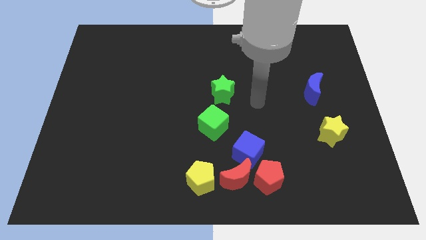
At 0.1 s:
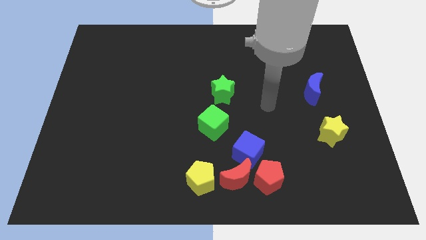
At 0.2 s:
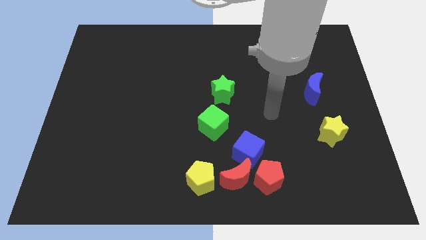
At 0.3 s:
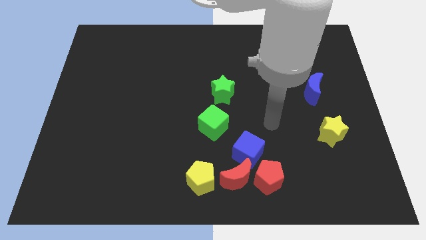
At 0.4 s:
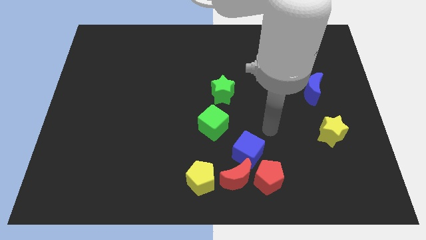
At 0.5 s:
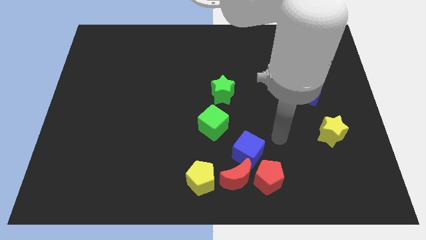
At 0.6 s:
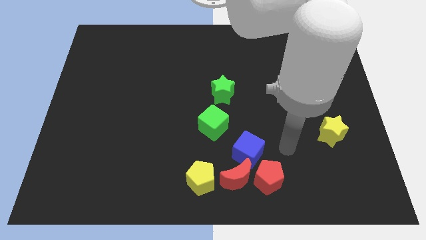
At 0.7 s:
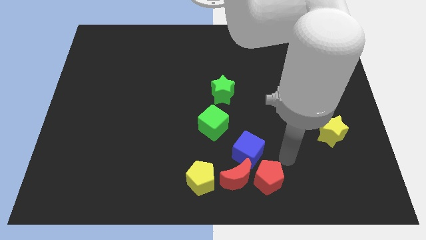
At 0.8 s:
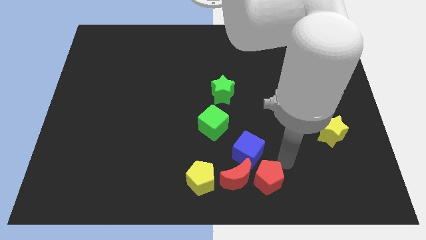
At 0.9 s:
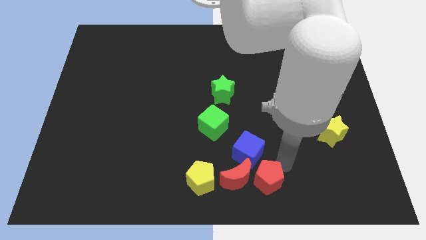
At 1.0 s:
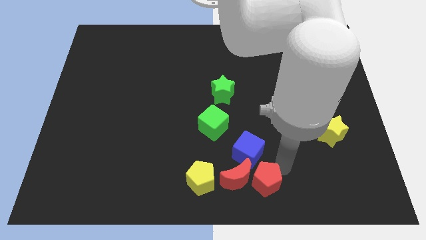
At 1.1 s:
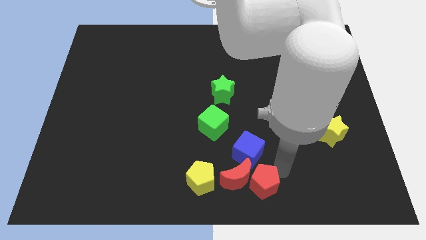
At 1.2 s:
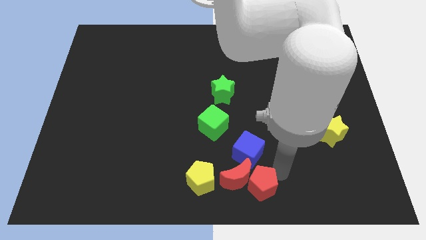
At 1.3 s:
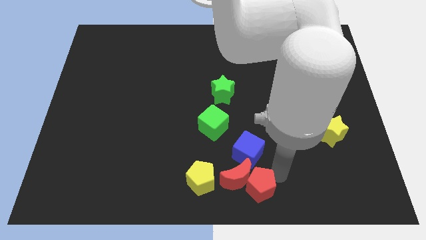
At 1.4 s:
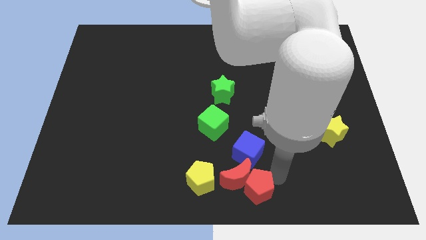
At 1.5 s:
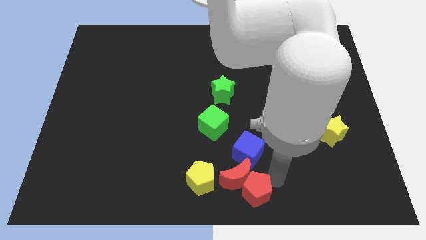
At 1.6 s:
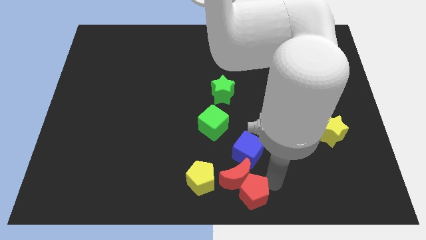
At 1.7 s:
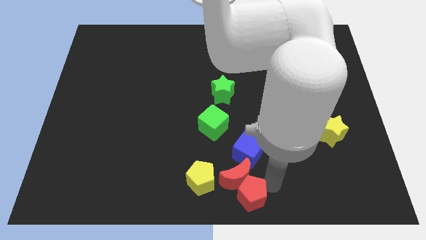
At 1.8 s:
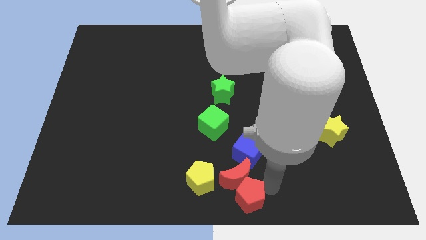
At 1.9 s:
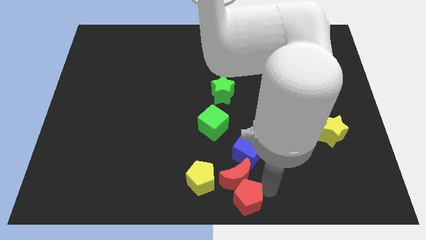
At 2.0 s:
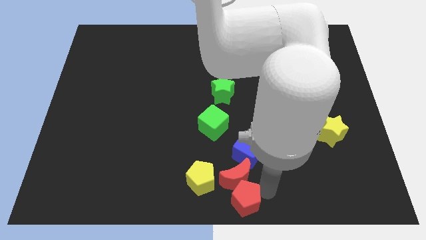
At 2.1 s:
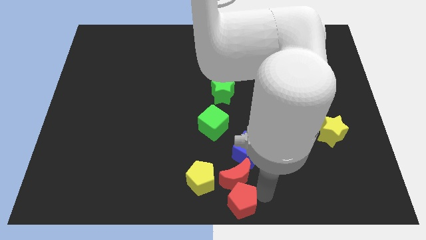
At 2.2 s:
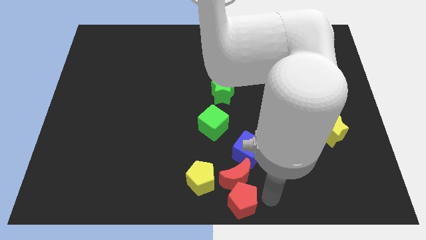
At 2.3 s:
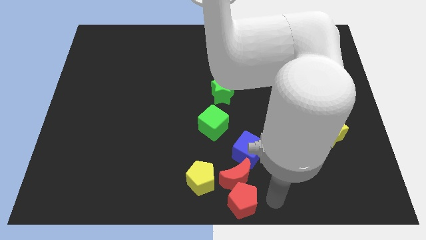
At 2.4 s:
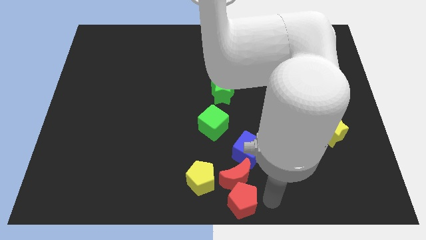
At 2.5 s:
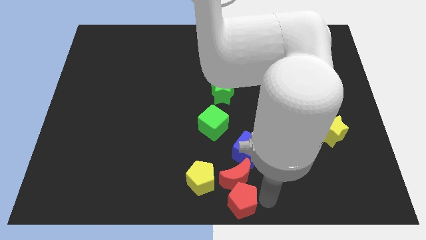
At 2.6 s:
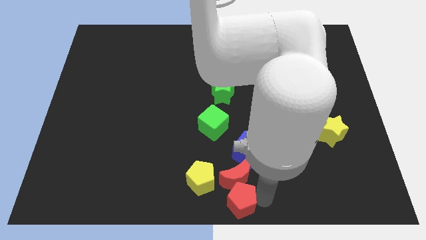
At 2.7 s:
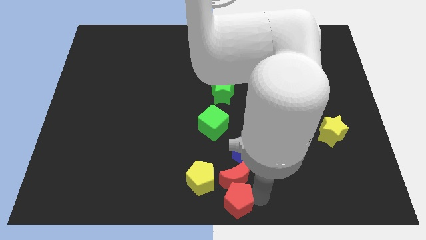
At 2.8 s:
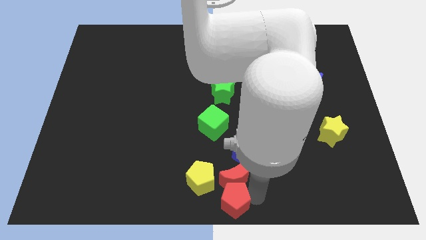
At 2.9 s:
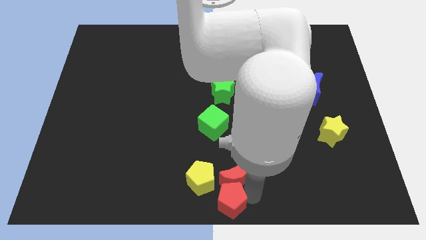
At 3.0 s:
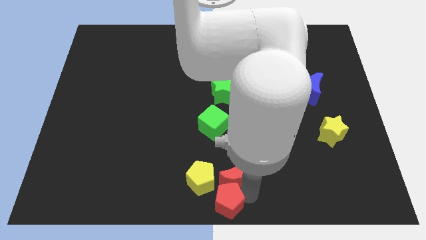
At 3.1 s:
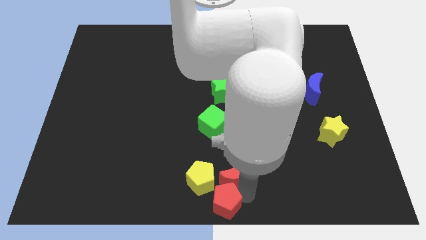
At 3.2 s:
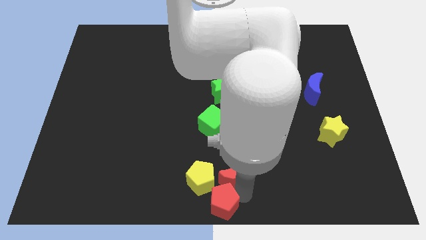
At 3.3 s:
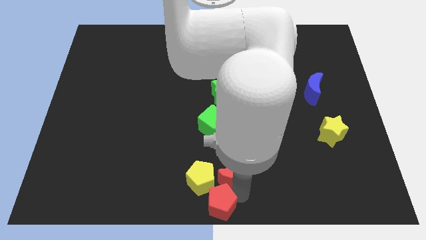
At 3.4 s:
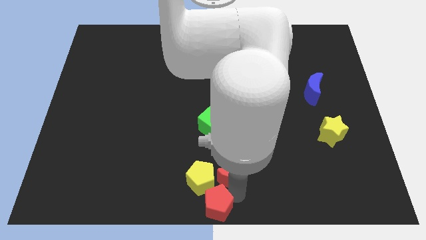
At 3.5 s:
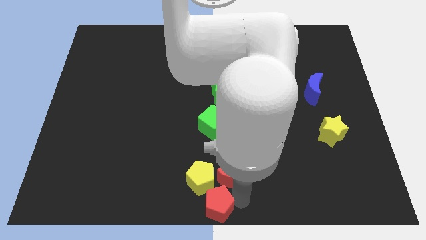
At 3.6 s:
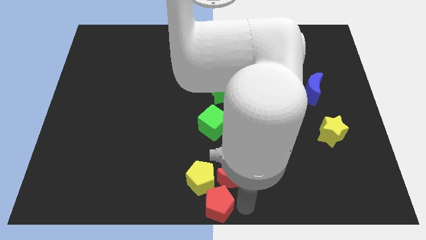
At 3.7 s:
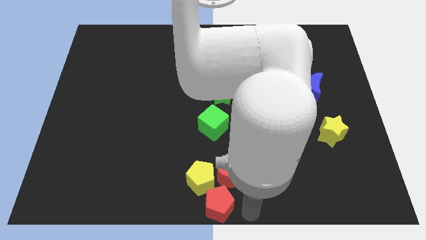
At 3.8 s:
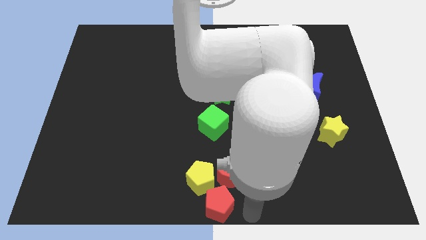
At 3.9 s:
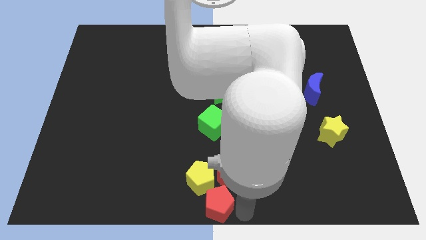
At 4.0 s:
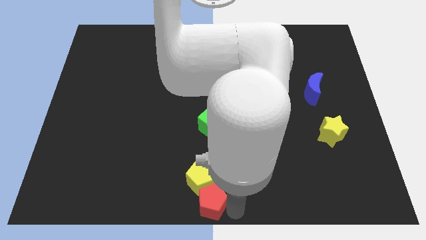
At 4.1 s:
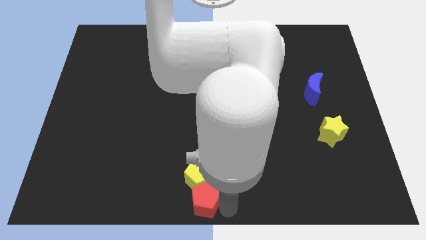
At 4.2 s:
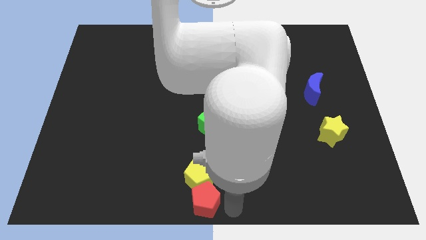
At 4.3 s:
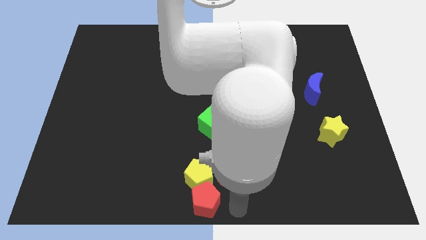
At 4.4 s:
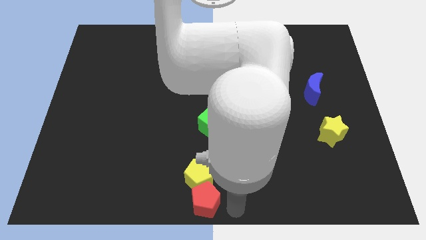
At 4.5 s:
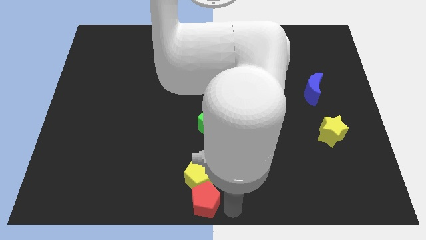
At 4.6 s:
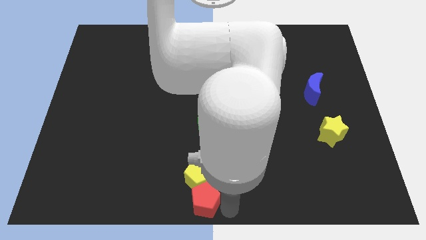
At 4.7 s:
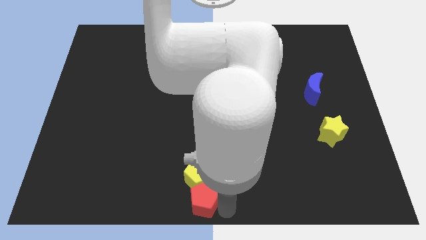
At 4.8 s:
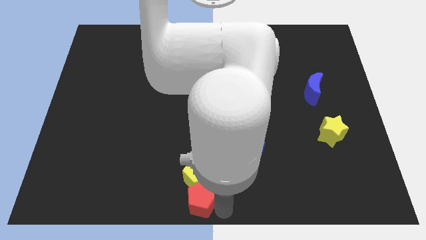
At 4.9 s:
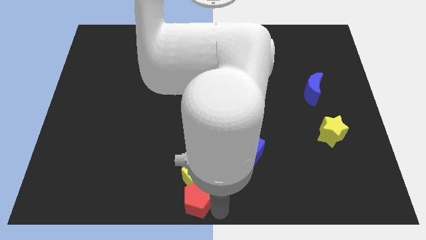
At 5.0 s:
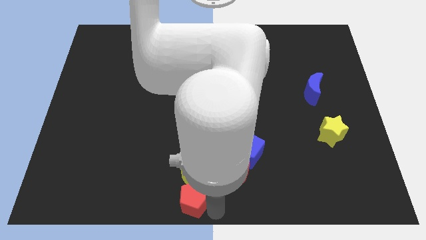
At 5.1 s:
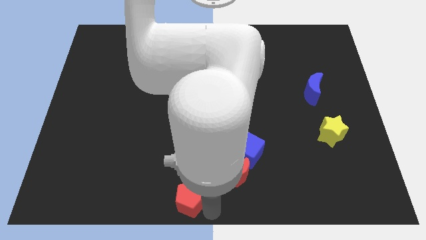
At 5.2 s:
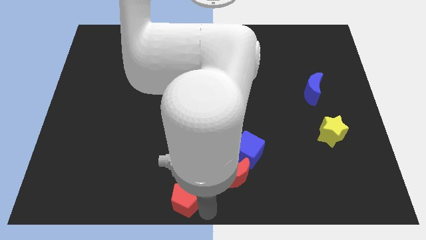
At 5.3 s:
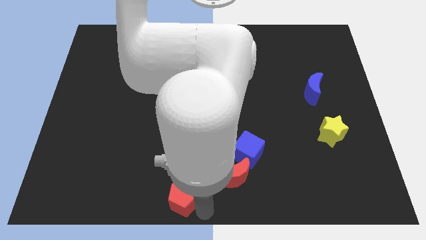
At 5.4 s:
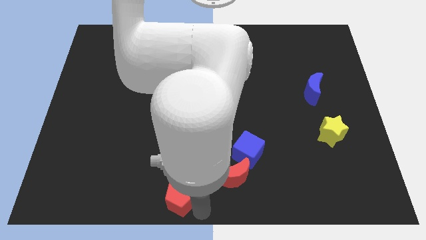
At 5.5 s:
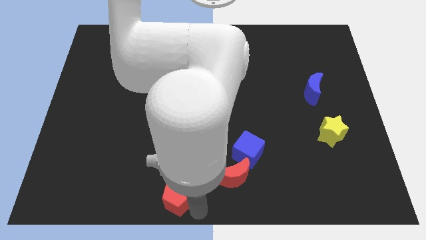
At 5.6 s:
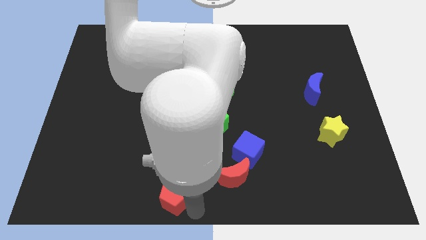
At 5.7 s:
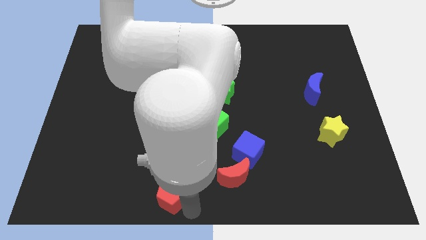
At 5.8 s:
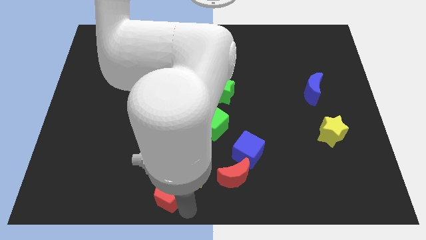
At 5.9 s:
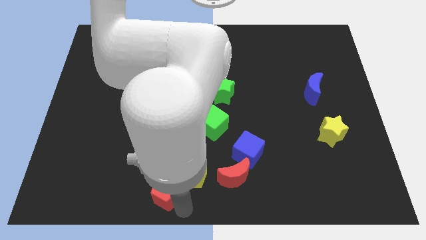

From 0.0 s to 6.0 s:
move the red pentagon left

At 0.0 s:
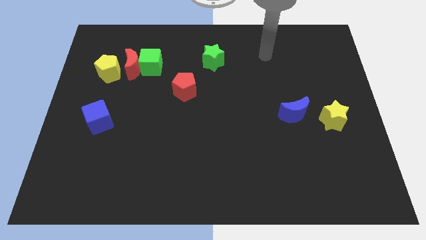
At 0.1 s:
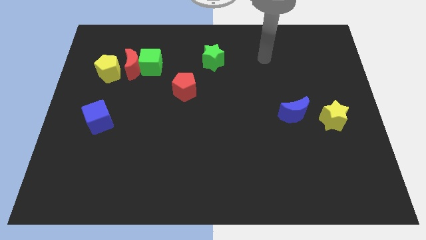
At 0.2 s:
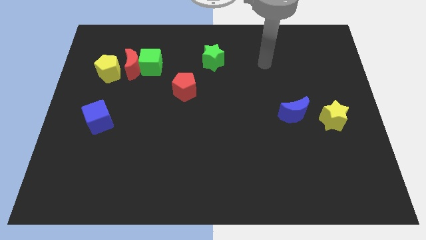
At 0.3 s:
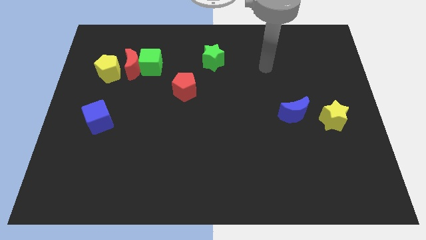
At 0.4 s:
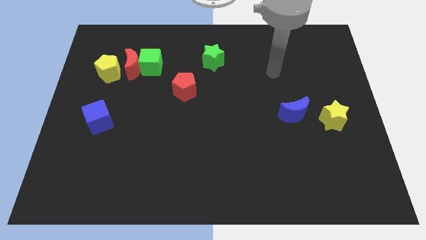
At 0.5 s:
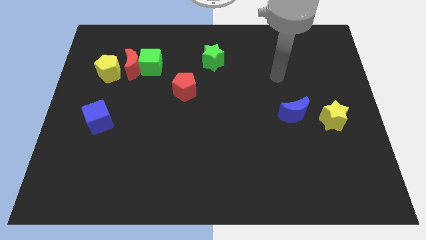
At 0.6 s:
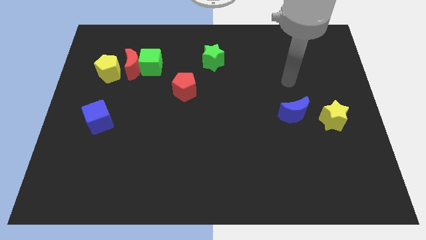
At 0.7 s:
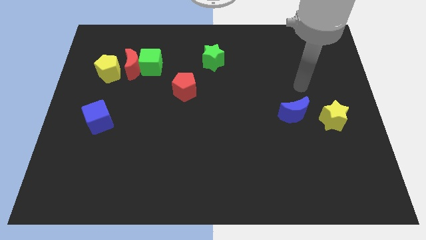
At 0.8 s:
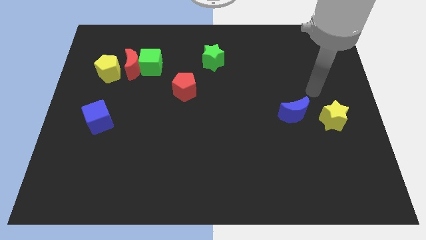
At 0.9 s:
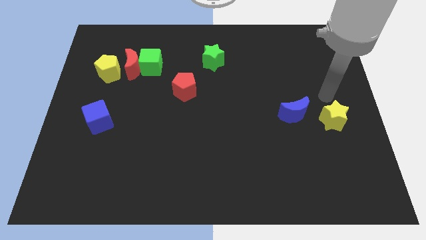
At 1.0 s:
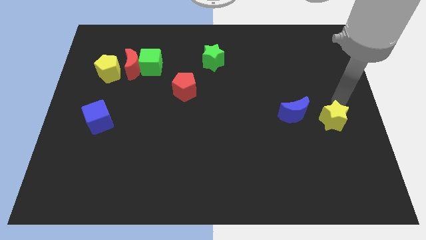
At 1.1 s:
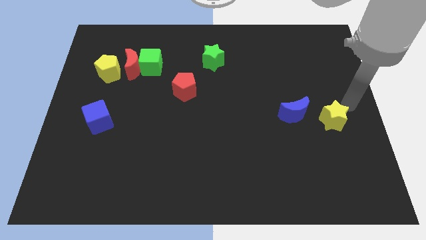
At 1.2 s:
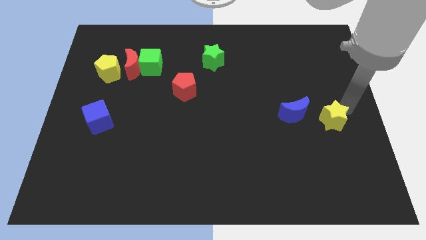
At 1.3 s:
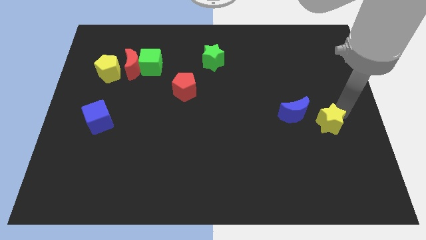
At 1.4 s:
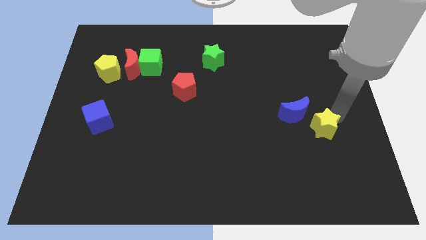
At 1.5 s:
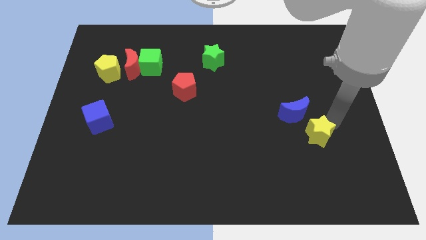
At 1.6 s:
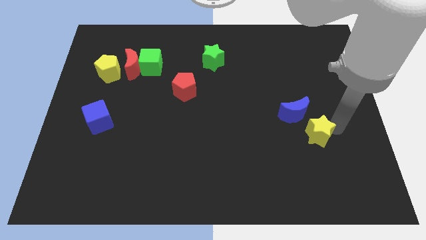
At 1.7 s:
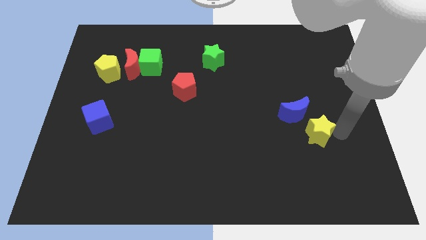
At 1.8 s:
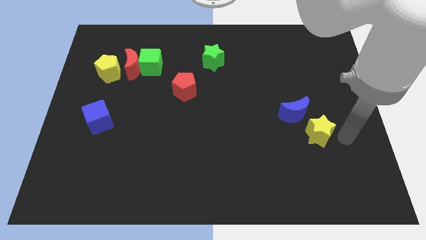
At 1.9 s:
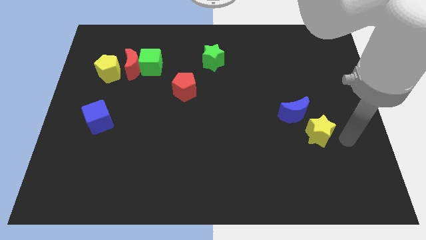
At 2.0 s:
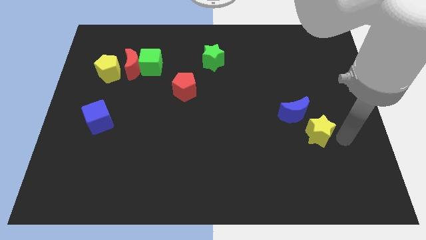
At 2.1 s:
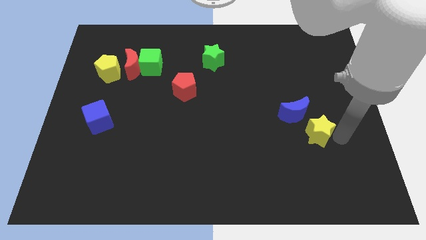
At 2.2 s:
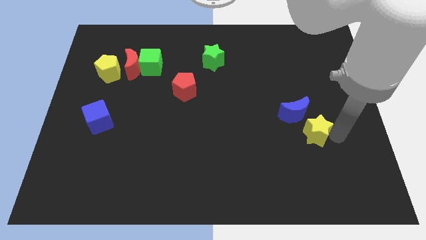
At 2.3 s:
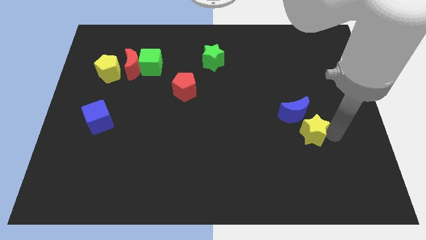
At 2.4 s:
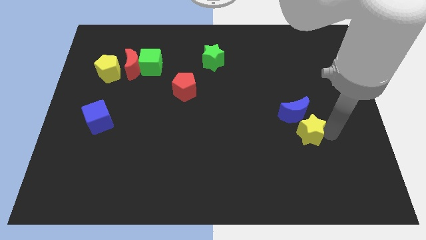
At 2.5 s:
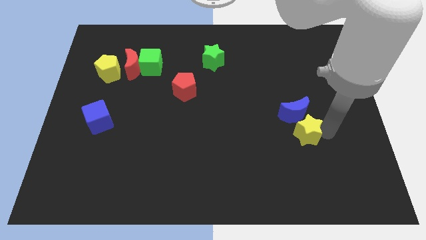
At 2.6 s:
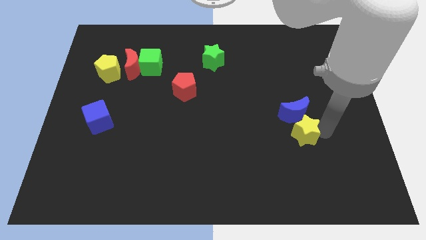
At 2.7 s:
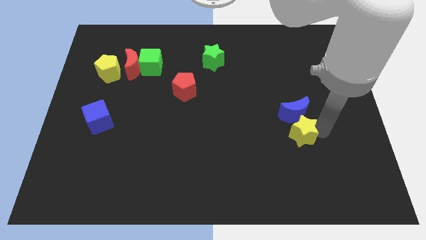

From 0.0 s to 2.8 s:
move the yellow star a bit left
